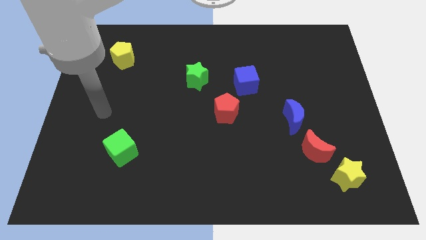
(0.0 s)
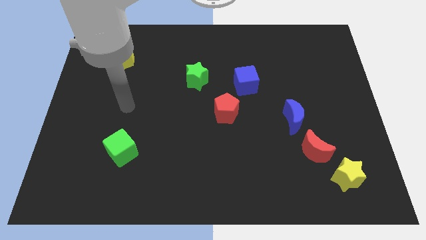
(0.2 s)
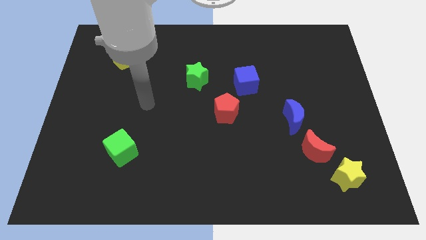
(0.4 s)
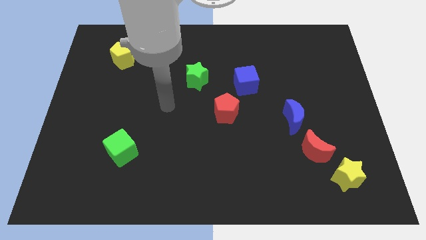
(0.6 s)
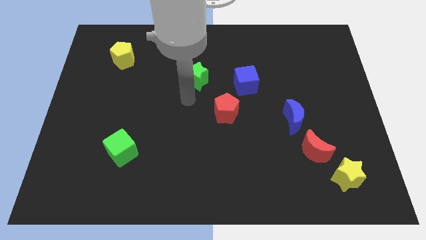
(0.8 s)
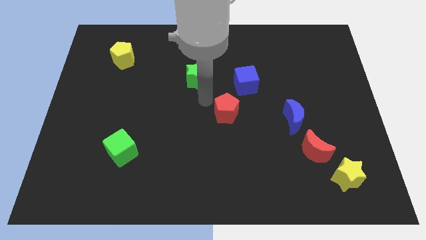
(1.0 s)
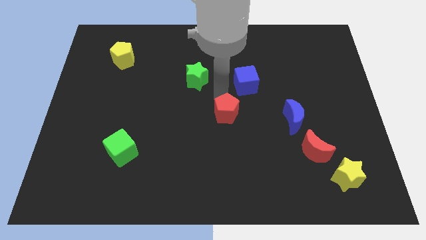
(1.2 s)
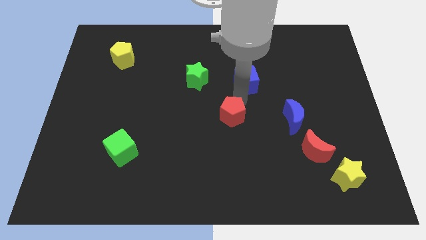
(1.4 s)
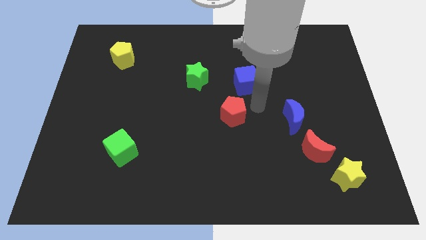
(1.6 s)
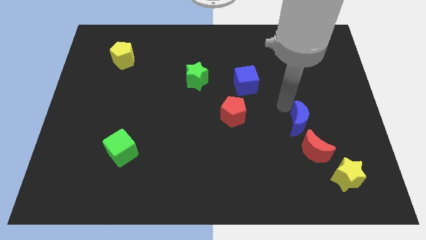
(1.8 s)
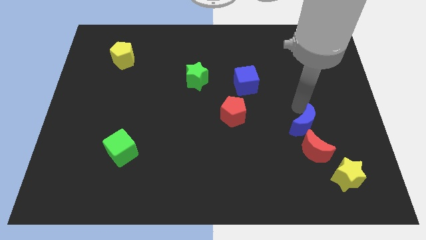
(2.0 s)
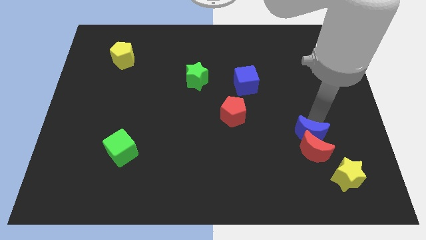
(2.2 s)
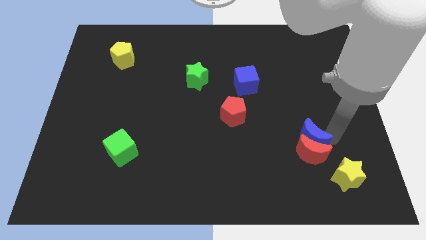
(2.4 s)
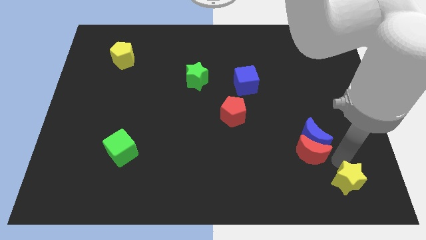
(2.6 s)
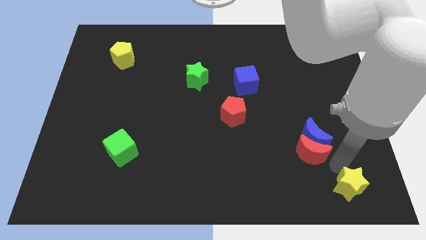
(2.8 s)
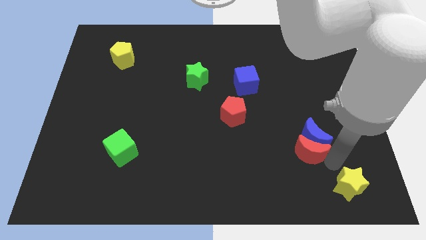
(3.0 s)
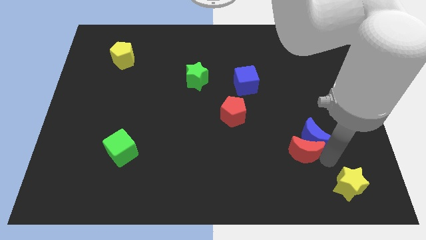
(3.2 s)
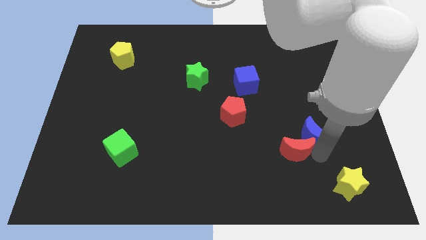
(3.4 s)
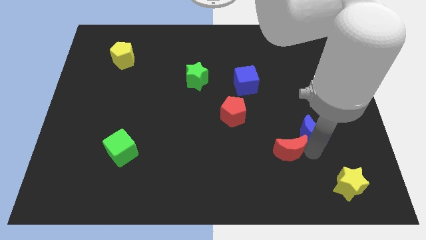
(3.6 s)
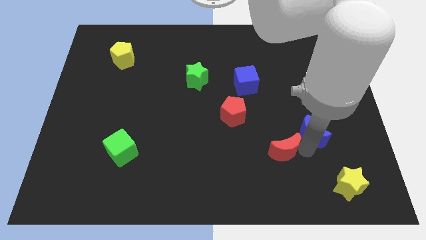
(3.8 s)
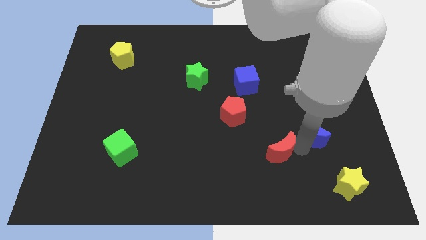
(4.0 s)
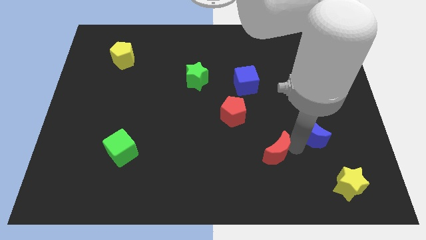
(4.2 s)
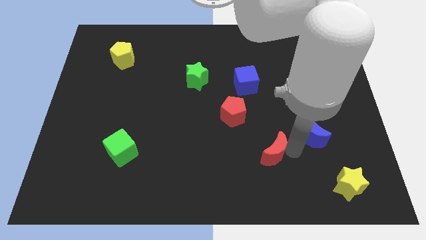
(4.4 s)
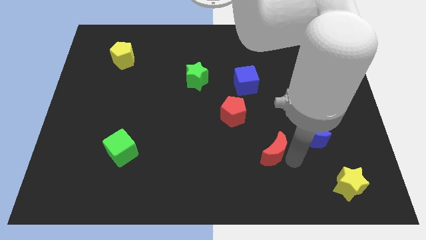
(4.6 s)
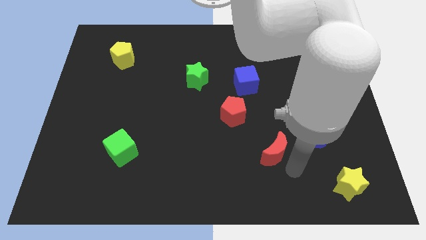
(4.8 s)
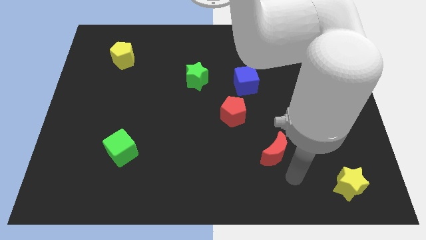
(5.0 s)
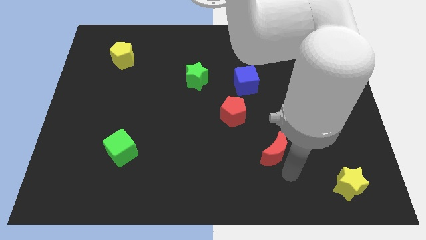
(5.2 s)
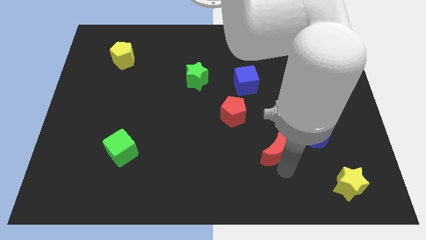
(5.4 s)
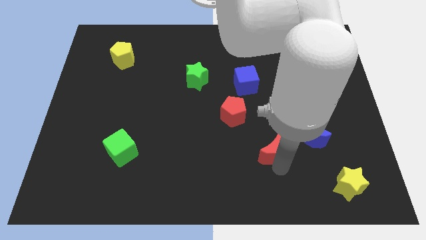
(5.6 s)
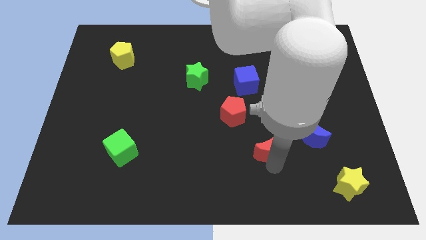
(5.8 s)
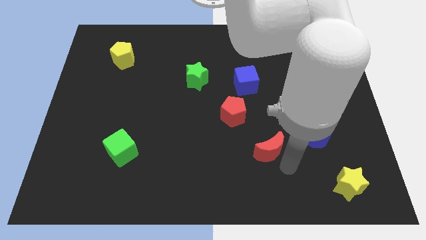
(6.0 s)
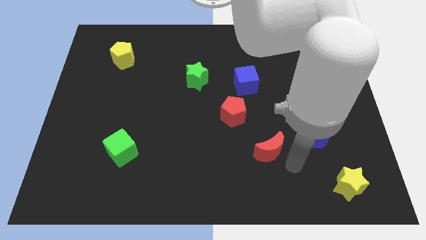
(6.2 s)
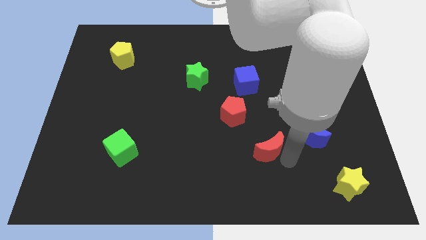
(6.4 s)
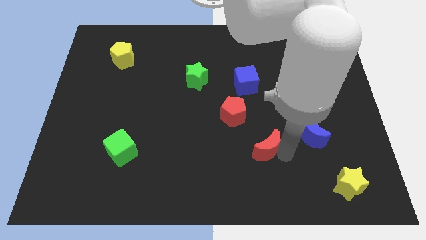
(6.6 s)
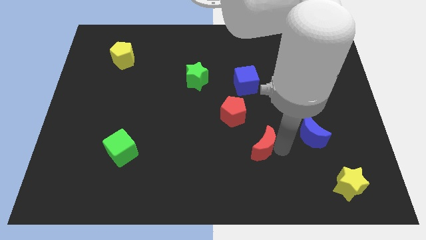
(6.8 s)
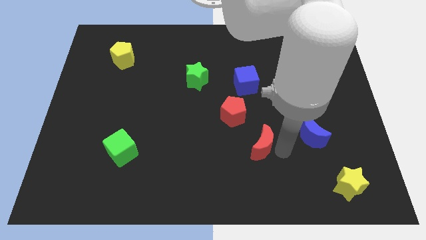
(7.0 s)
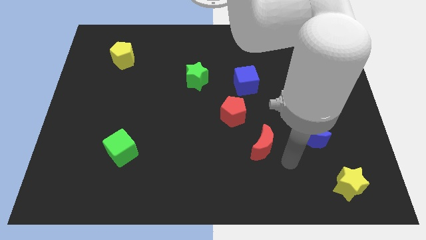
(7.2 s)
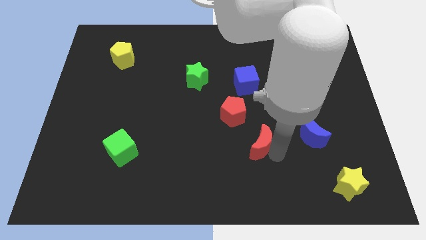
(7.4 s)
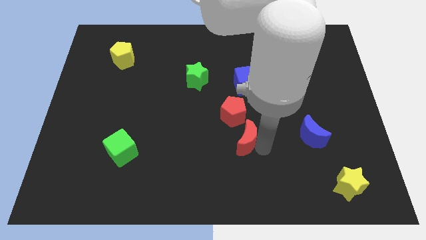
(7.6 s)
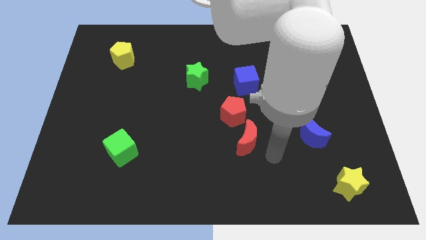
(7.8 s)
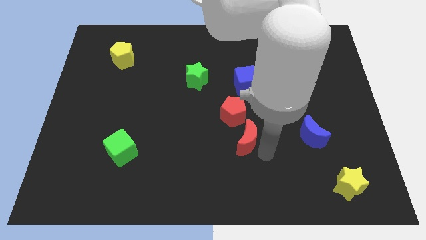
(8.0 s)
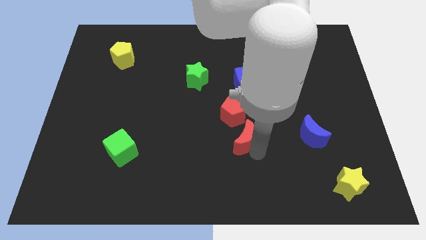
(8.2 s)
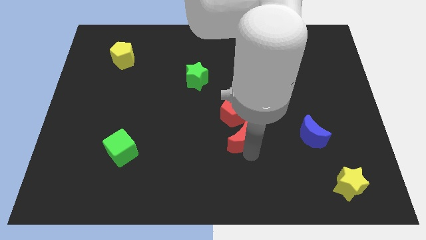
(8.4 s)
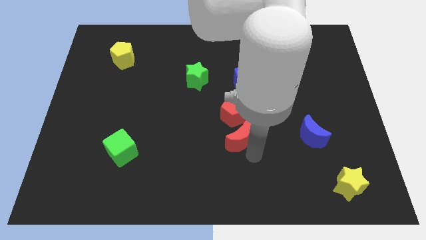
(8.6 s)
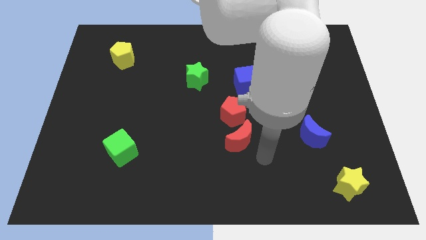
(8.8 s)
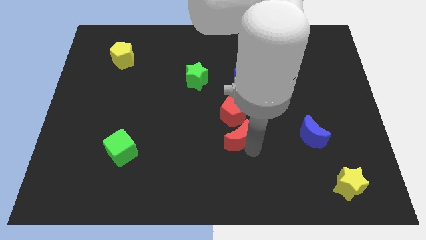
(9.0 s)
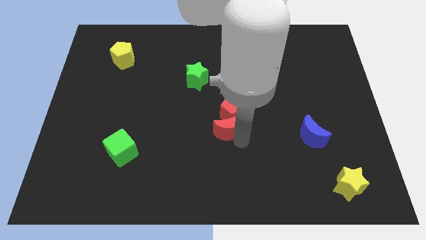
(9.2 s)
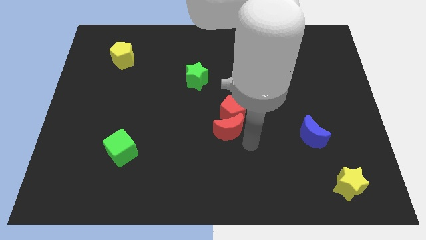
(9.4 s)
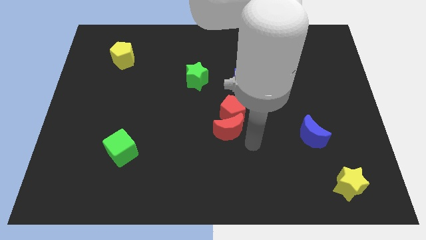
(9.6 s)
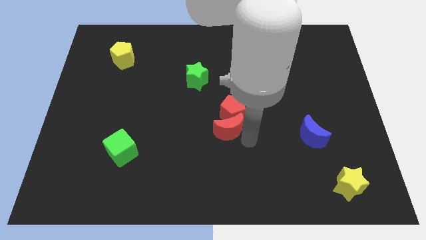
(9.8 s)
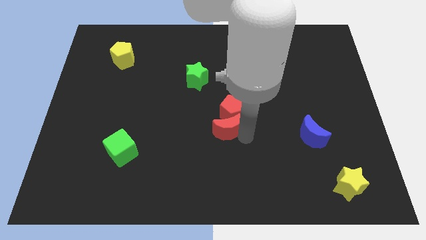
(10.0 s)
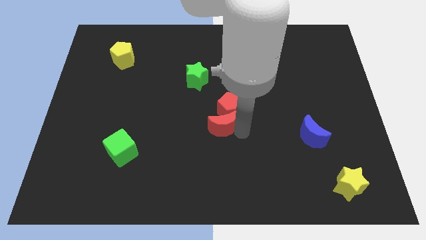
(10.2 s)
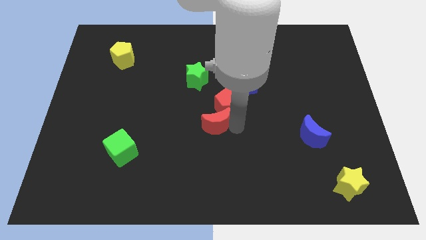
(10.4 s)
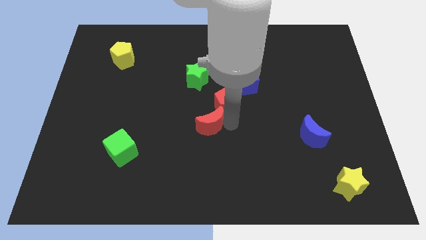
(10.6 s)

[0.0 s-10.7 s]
put the red moon to the bottom of the green star

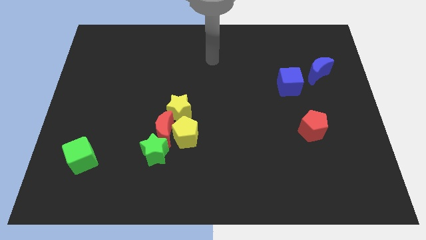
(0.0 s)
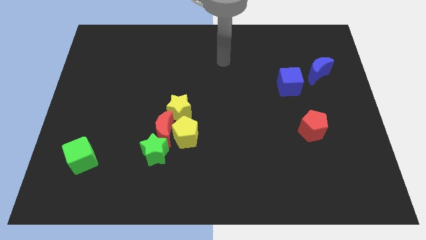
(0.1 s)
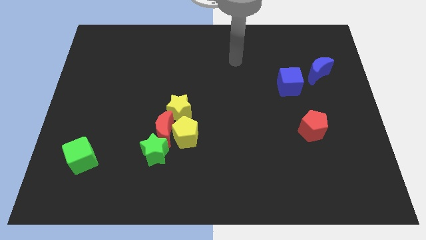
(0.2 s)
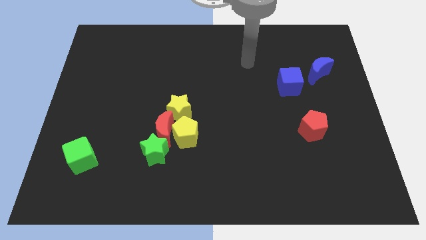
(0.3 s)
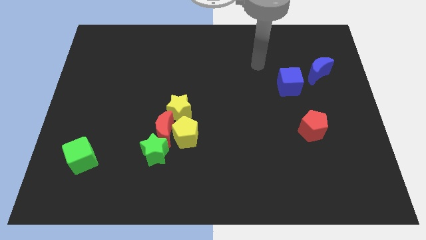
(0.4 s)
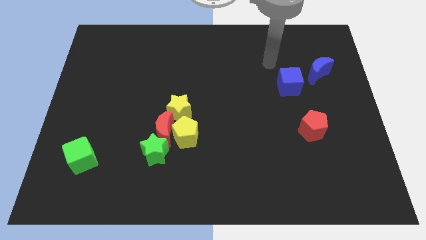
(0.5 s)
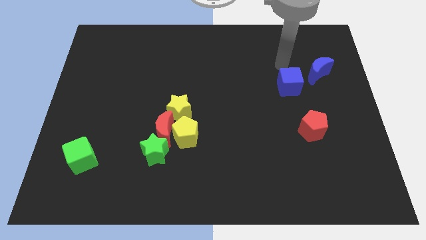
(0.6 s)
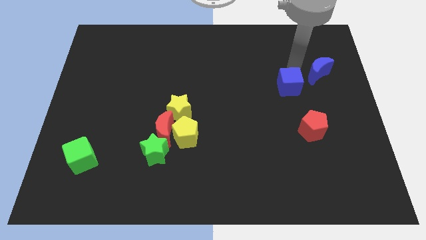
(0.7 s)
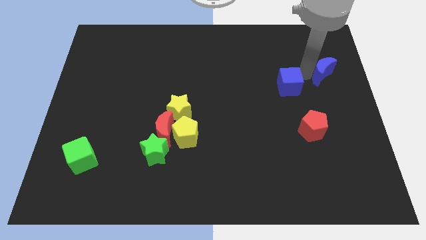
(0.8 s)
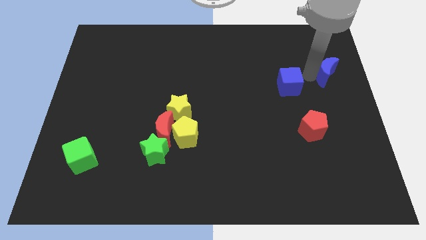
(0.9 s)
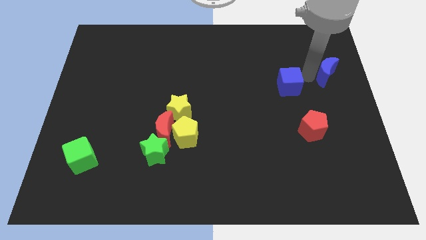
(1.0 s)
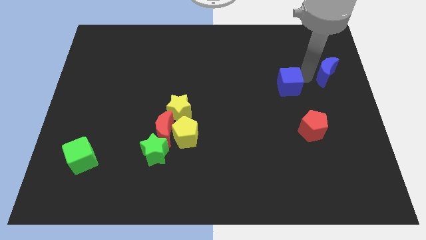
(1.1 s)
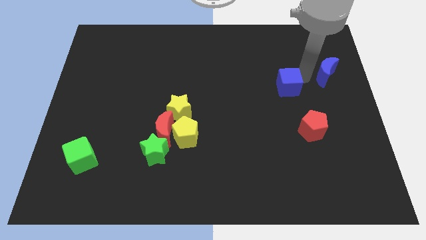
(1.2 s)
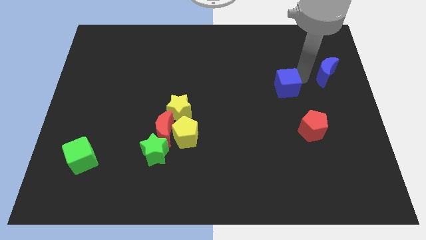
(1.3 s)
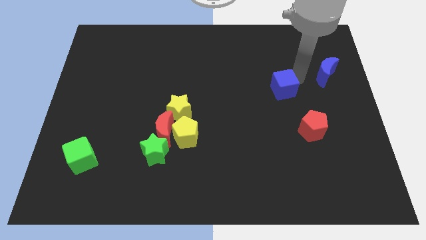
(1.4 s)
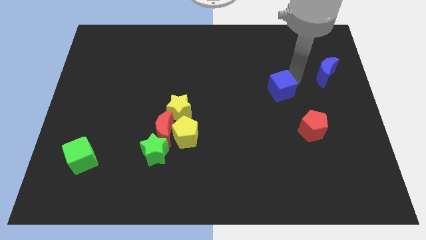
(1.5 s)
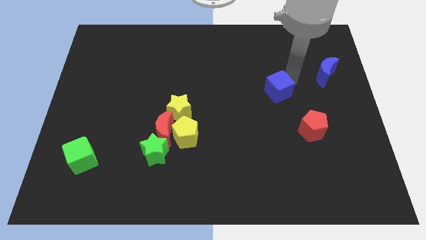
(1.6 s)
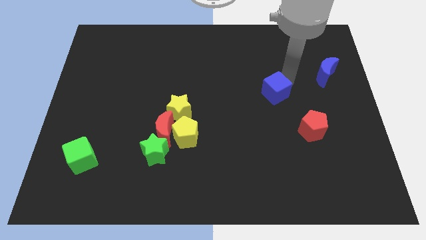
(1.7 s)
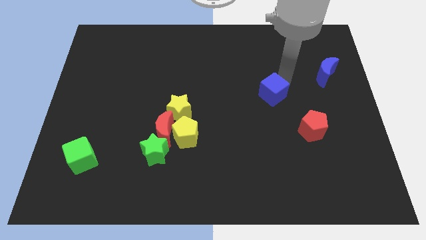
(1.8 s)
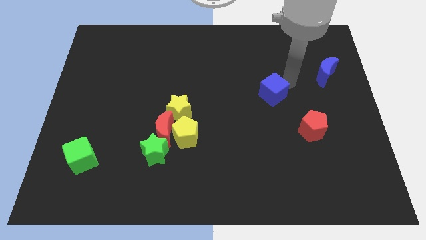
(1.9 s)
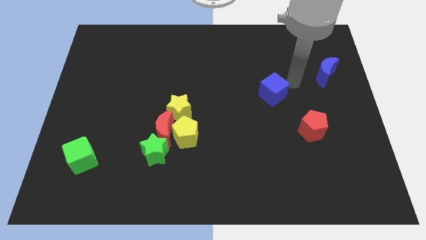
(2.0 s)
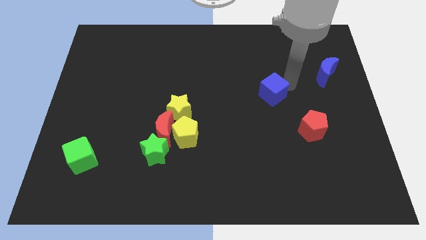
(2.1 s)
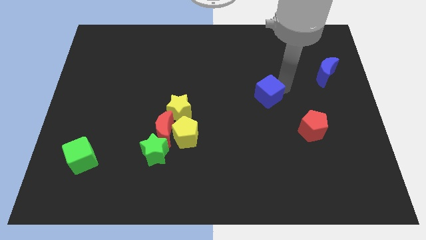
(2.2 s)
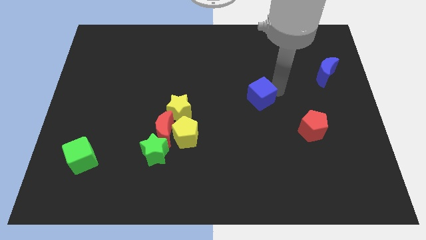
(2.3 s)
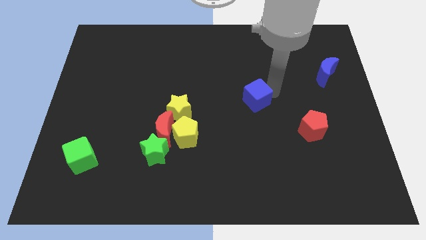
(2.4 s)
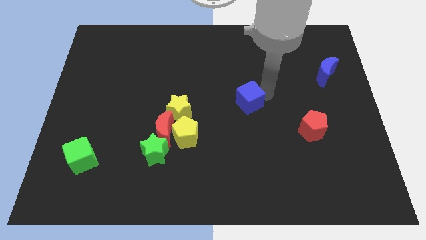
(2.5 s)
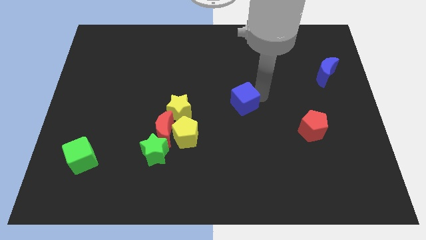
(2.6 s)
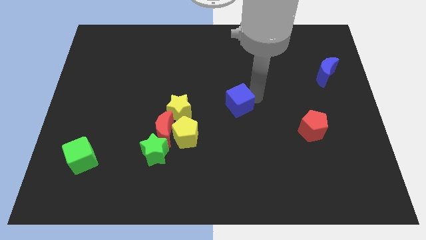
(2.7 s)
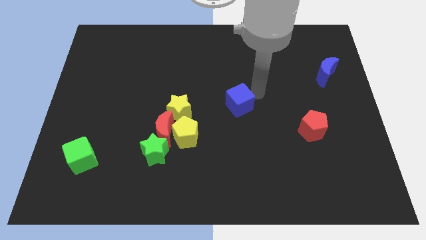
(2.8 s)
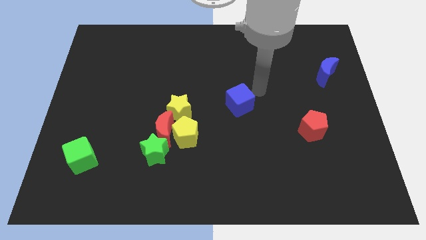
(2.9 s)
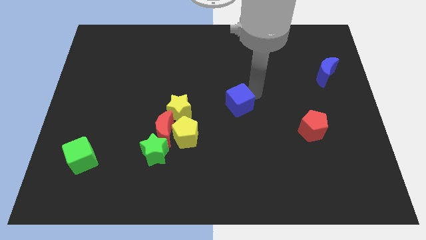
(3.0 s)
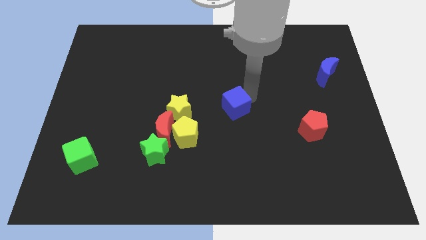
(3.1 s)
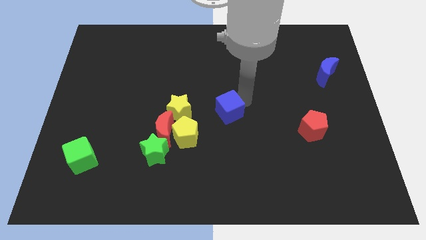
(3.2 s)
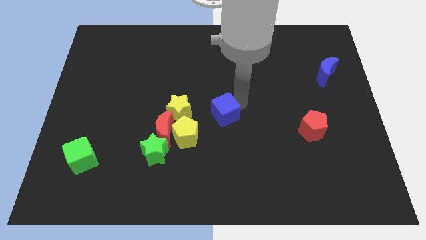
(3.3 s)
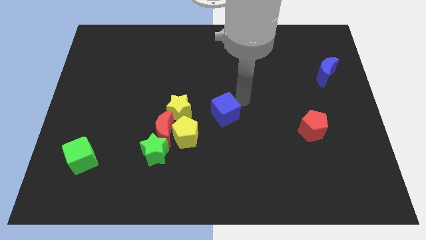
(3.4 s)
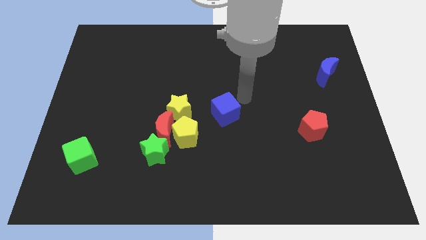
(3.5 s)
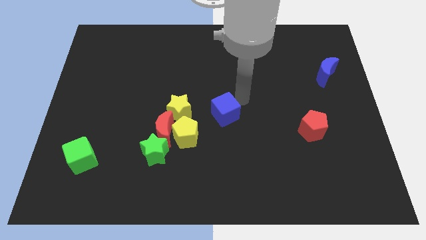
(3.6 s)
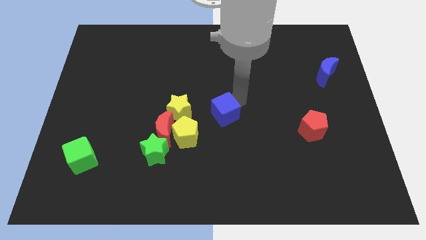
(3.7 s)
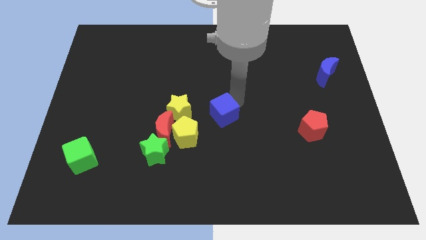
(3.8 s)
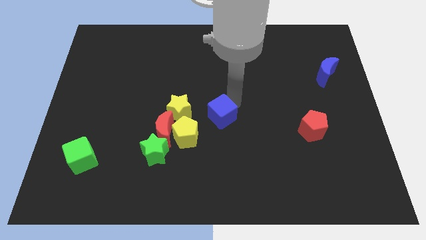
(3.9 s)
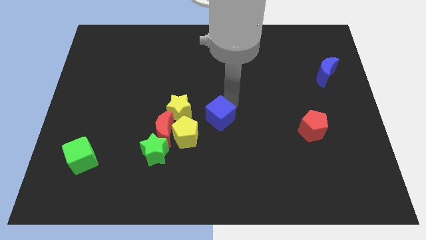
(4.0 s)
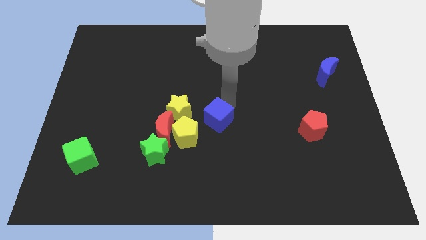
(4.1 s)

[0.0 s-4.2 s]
slide the blue cube to the bottom right side of the yellow star
